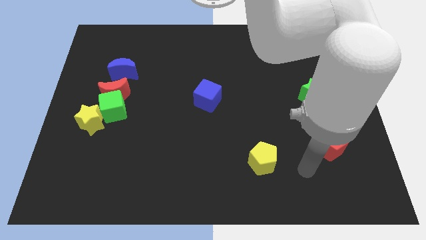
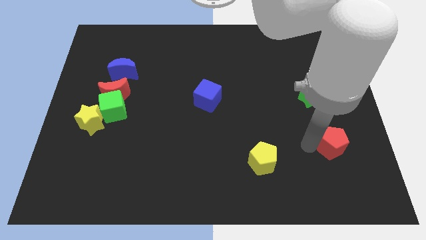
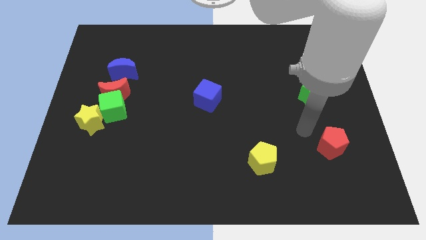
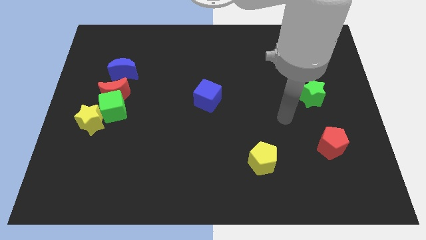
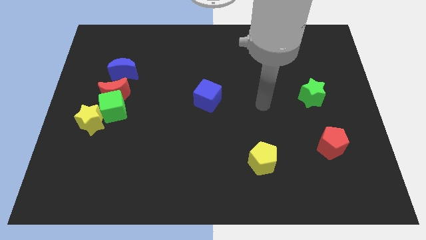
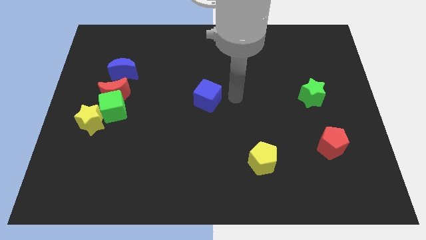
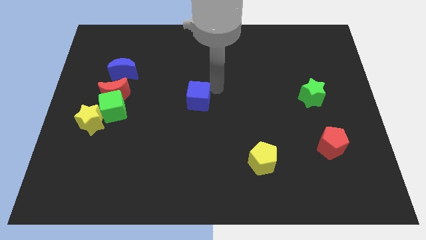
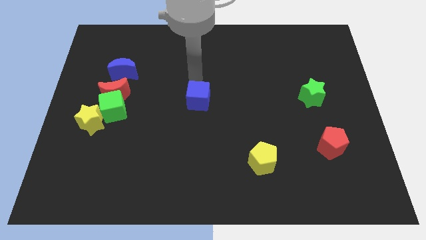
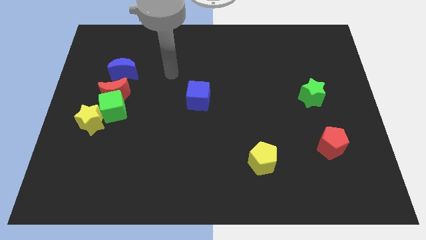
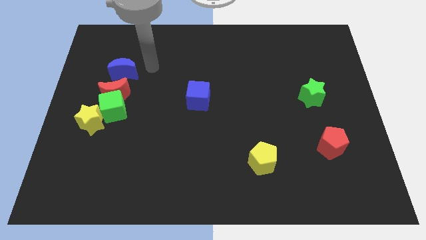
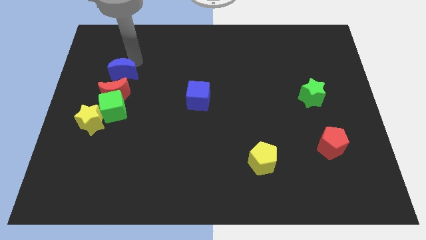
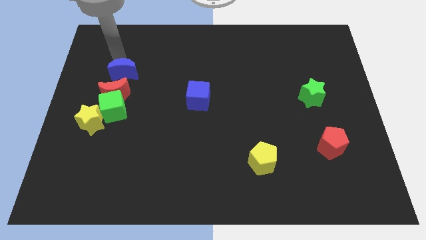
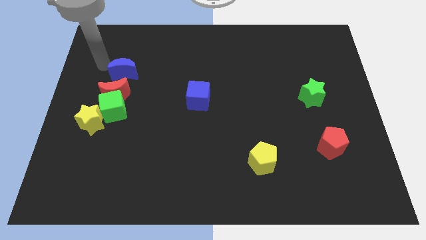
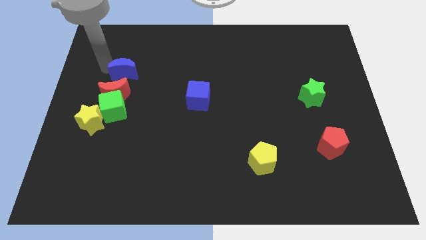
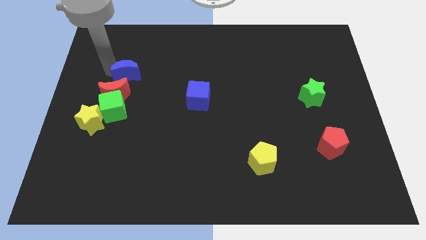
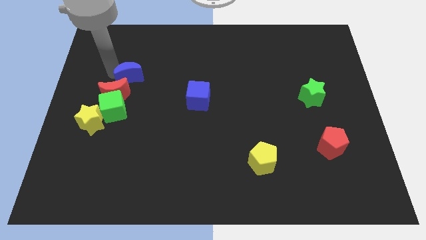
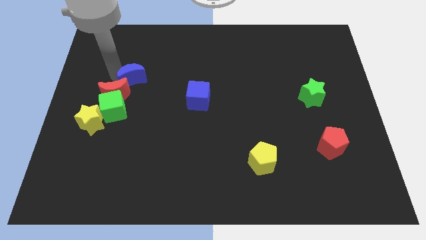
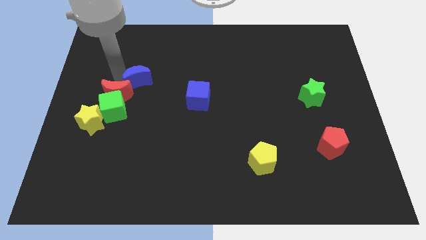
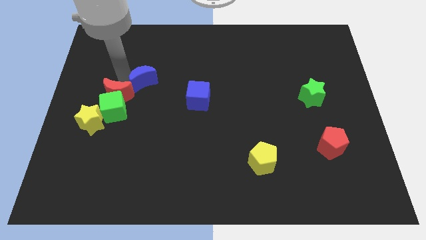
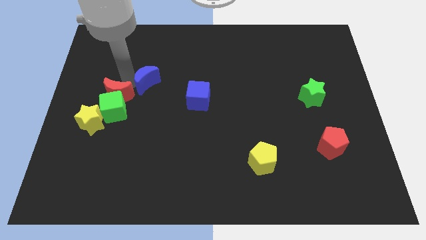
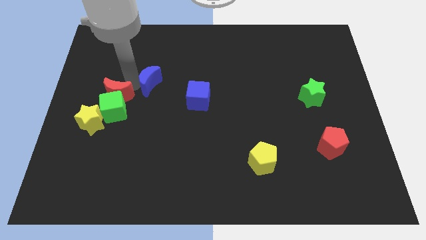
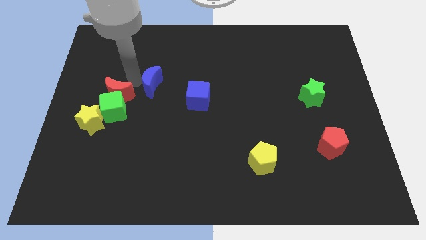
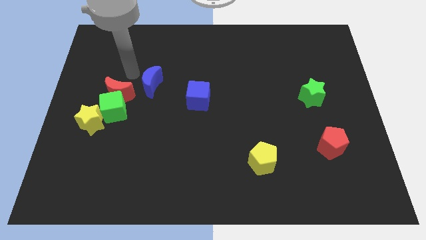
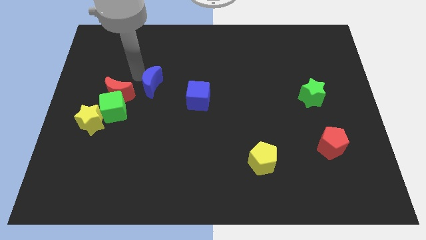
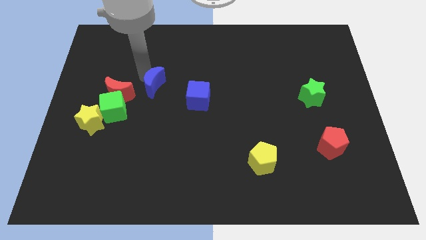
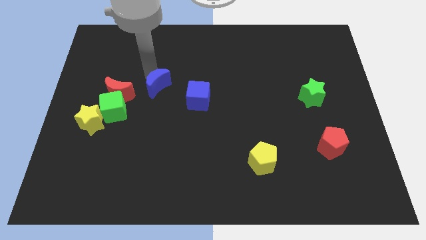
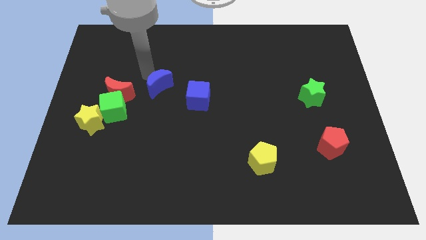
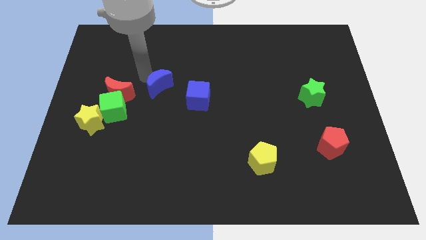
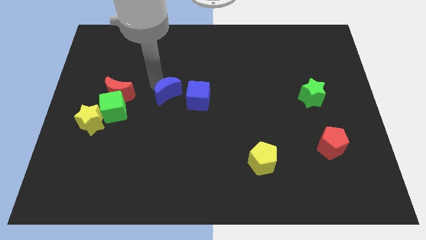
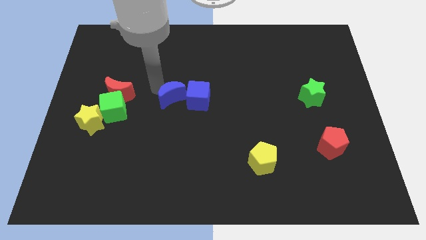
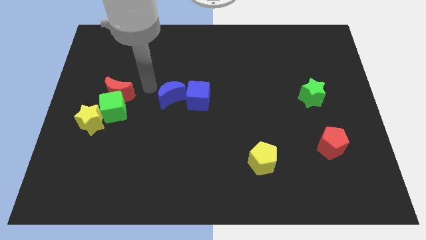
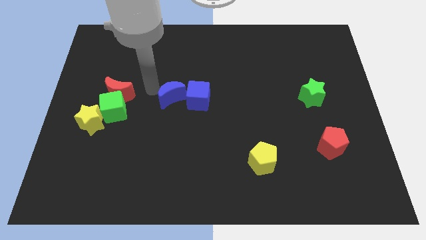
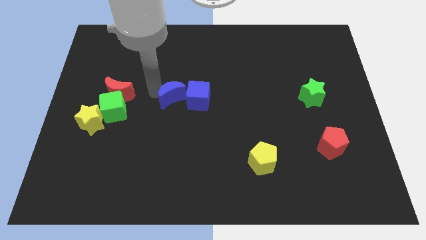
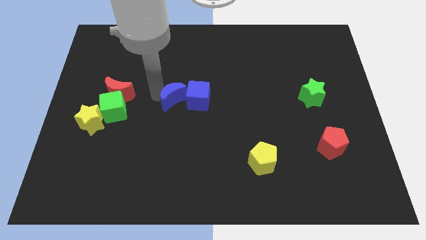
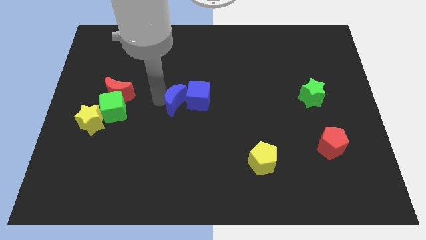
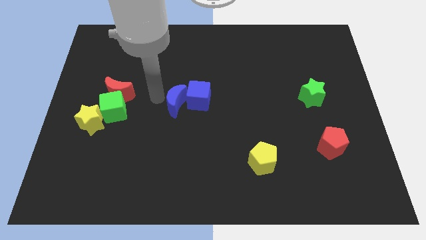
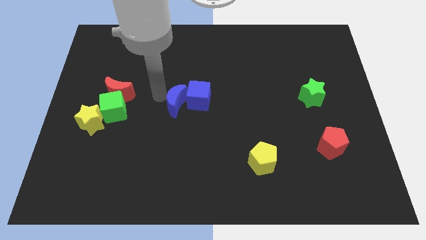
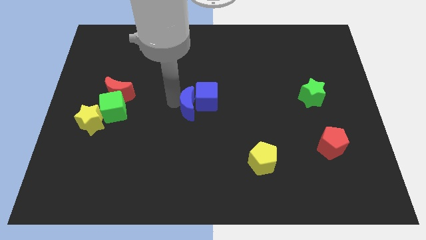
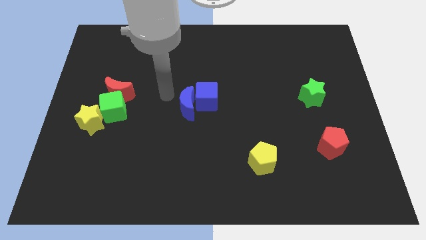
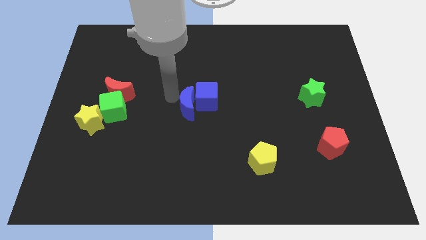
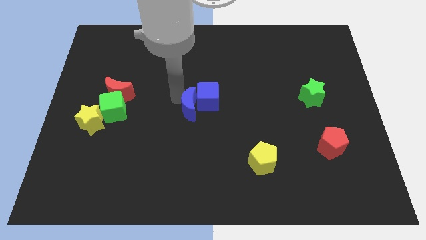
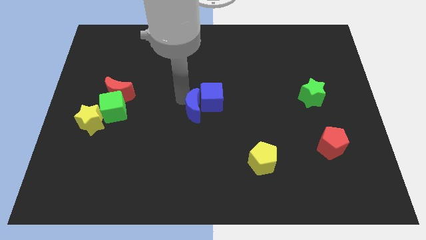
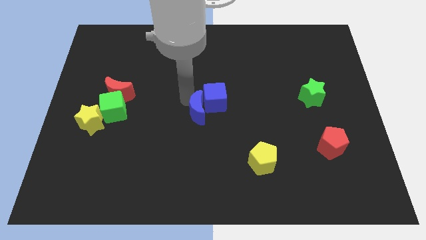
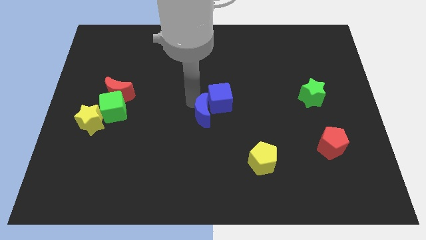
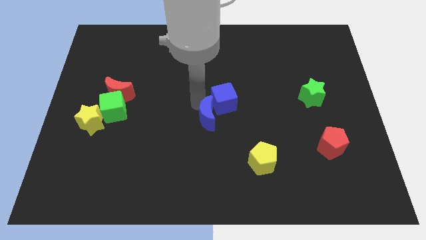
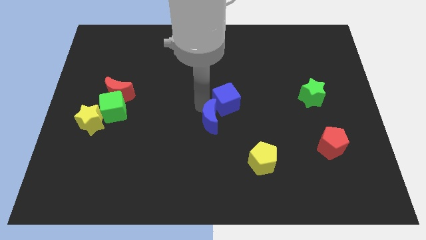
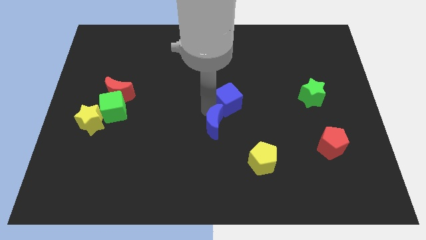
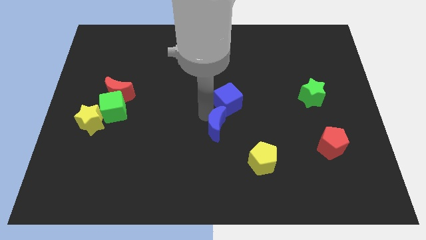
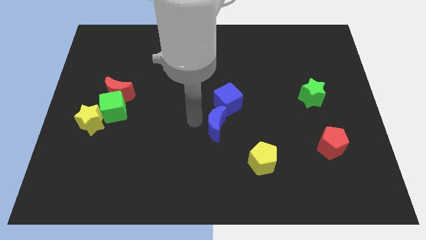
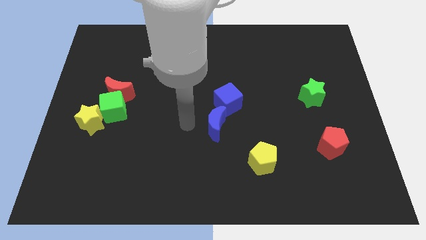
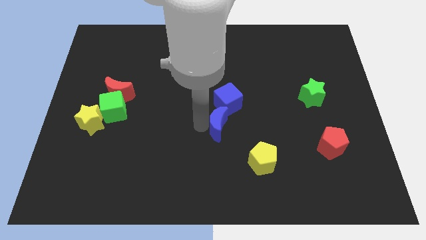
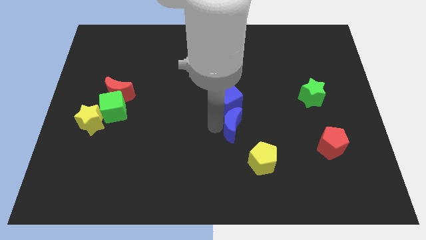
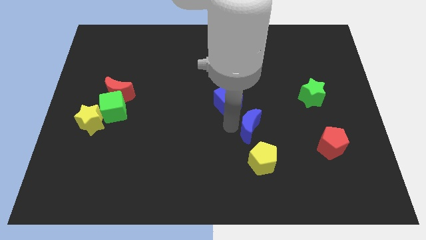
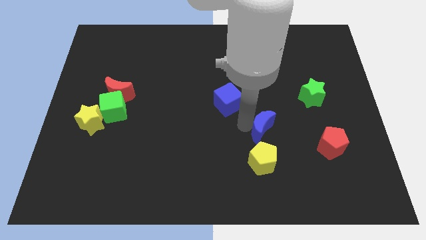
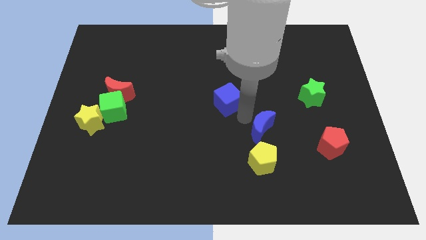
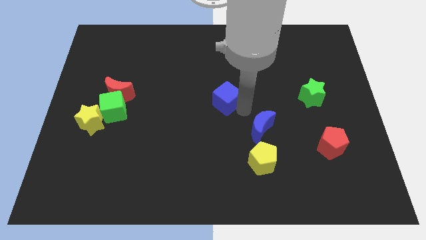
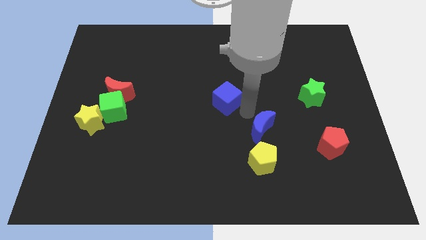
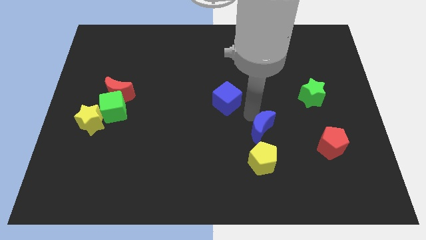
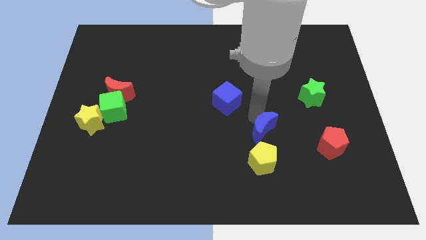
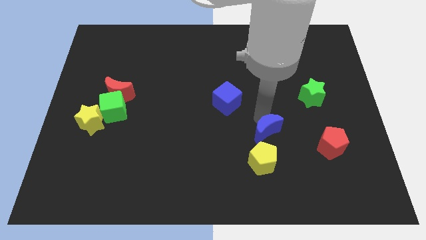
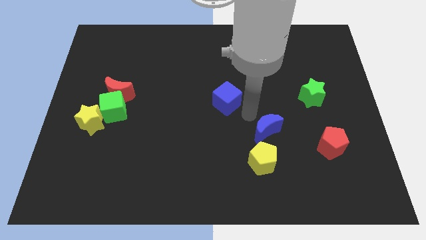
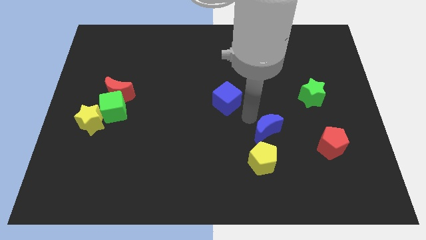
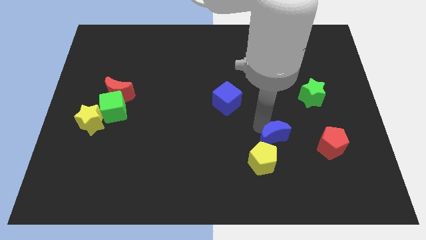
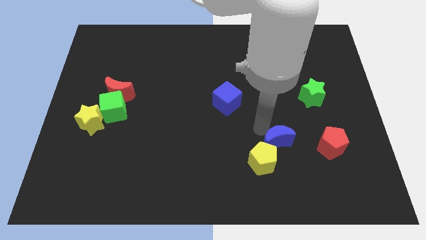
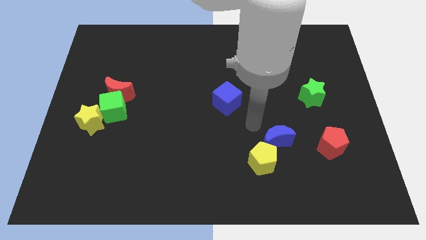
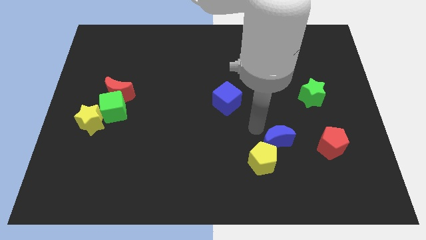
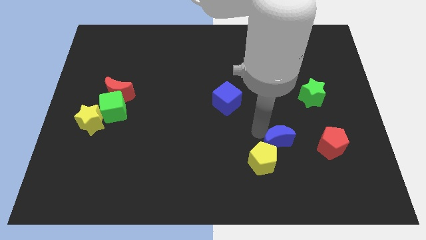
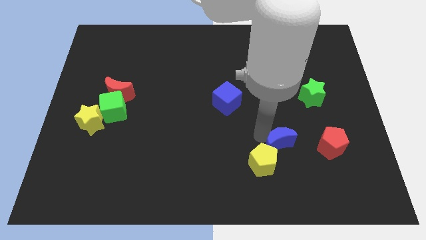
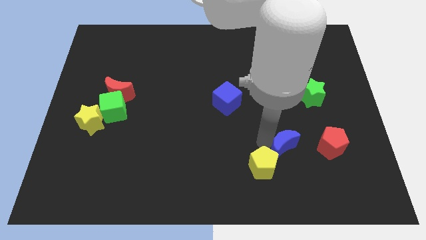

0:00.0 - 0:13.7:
move the blue moon right of the yellow pentagon
